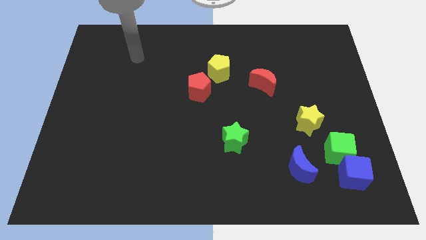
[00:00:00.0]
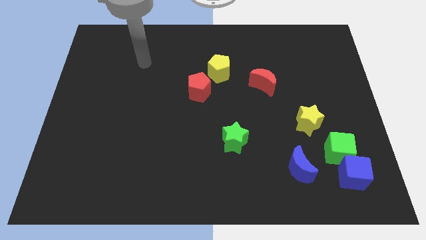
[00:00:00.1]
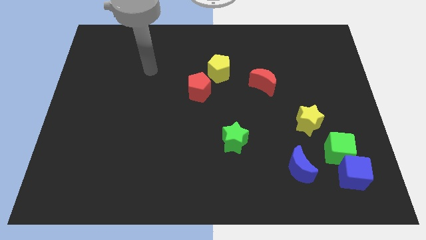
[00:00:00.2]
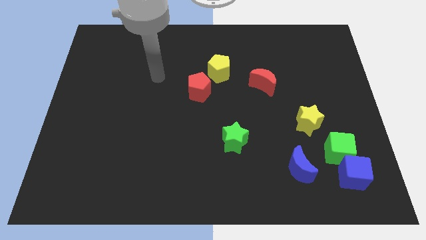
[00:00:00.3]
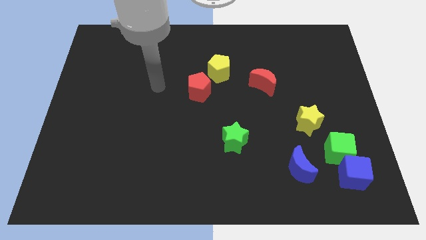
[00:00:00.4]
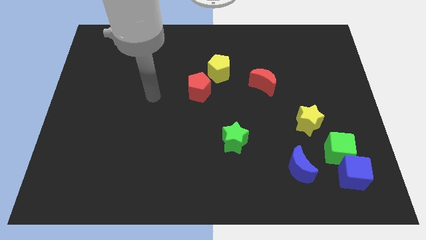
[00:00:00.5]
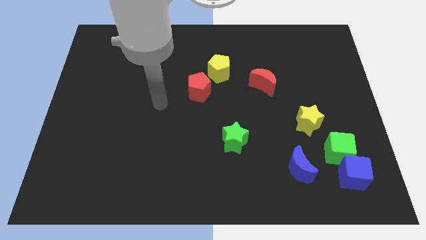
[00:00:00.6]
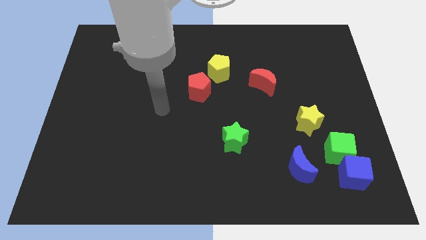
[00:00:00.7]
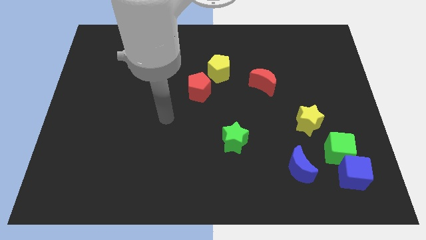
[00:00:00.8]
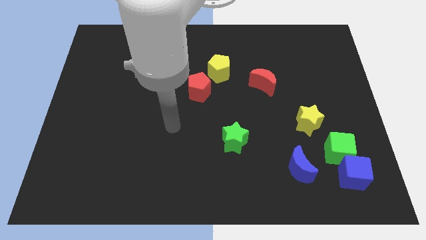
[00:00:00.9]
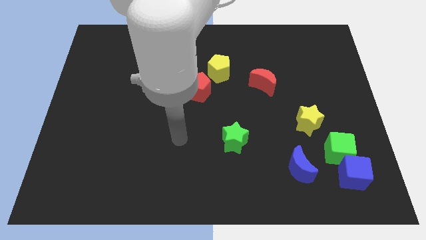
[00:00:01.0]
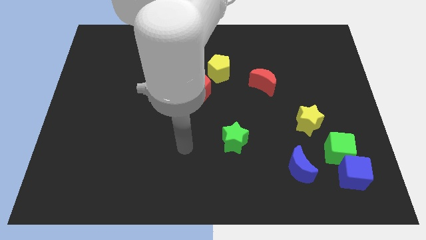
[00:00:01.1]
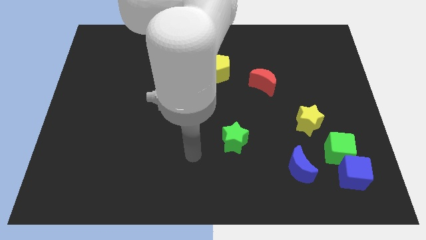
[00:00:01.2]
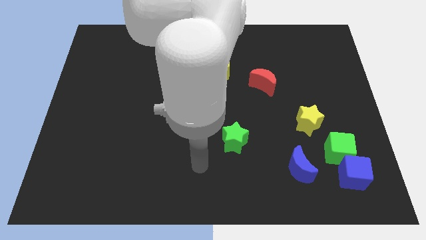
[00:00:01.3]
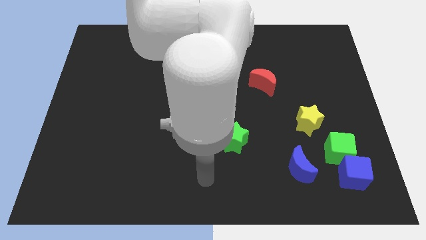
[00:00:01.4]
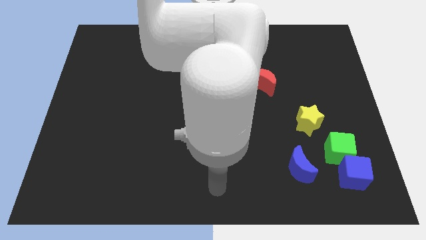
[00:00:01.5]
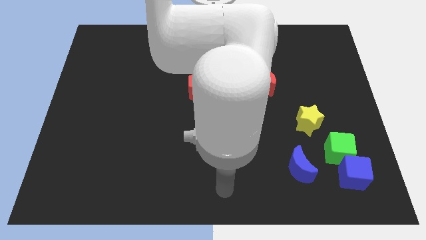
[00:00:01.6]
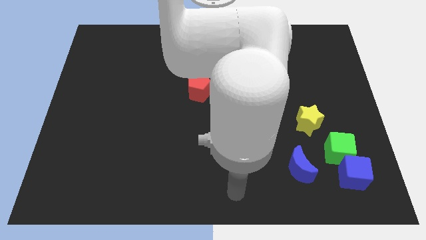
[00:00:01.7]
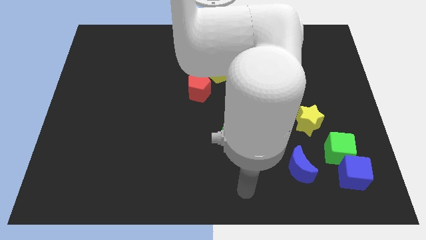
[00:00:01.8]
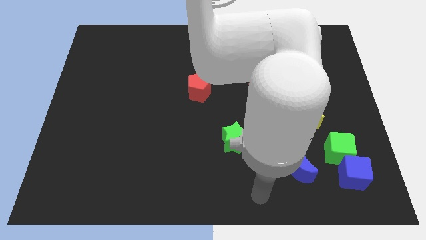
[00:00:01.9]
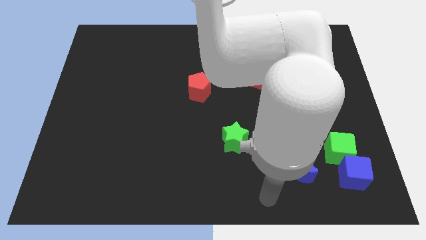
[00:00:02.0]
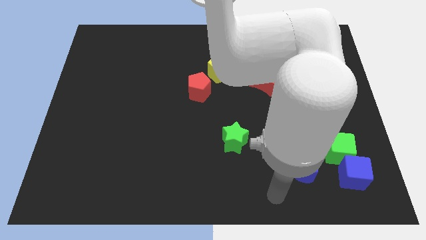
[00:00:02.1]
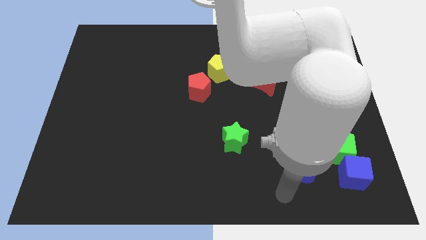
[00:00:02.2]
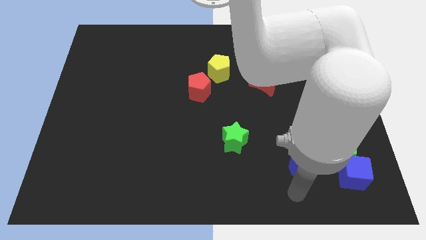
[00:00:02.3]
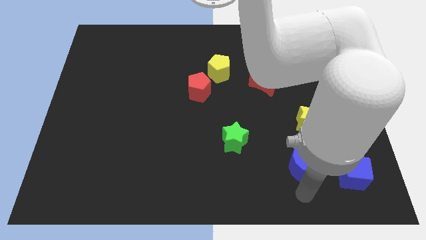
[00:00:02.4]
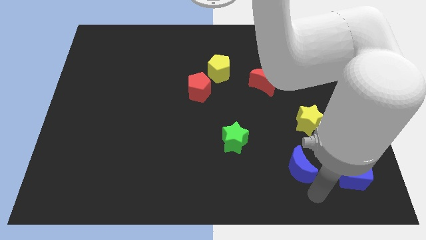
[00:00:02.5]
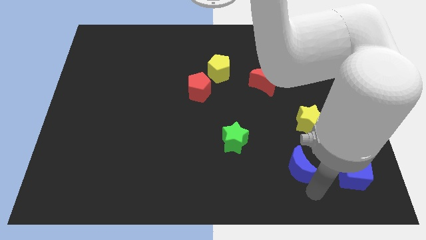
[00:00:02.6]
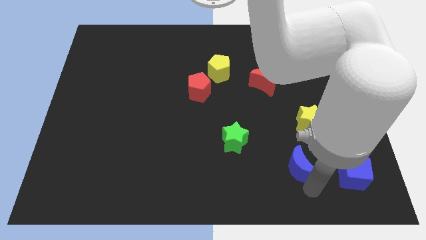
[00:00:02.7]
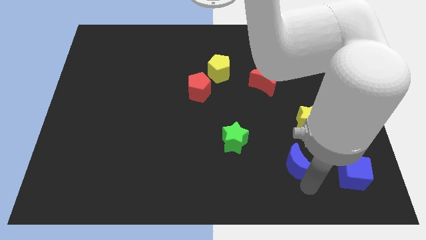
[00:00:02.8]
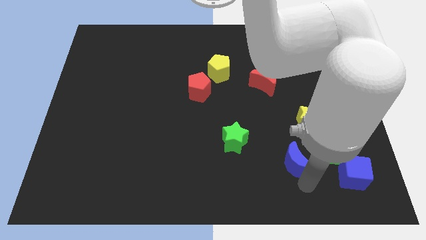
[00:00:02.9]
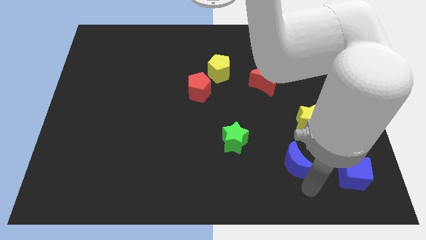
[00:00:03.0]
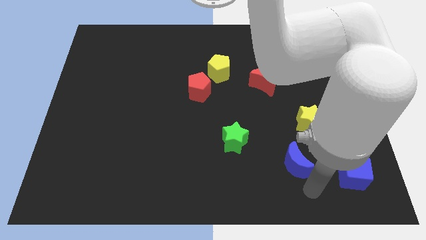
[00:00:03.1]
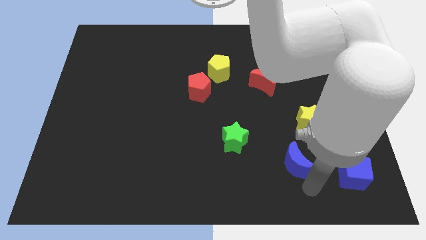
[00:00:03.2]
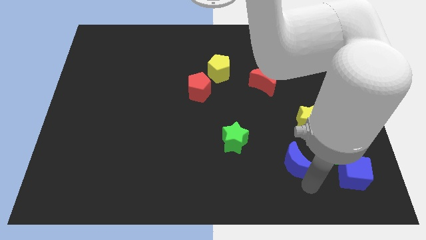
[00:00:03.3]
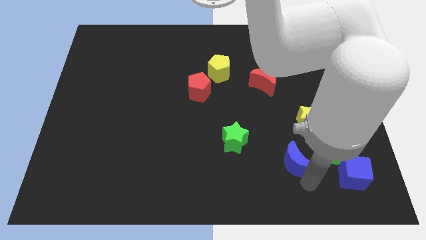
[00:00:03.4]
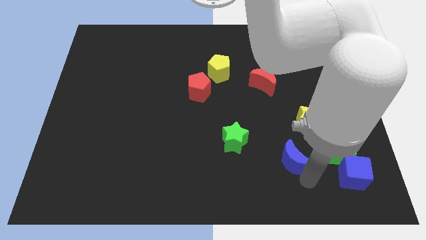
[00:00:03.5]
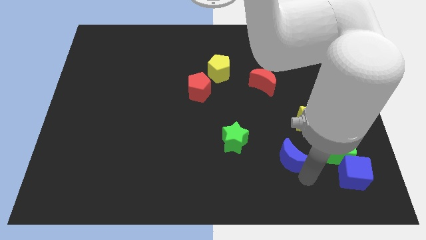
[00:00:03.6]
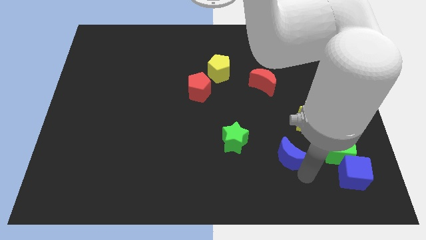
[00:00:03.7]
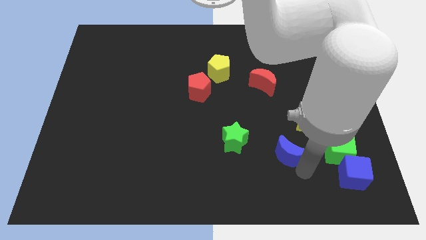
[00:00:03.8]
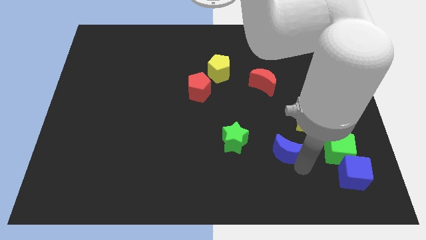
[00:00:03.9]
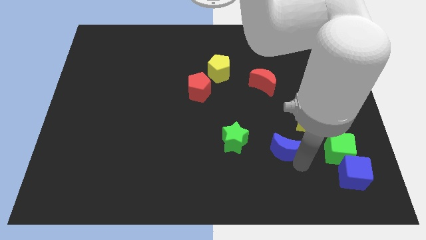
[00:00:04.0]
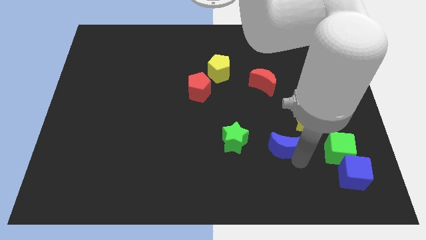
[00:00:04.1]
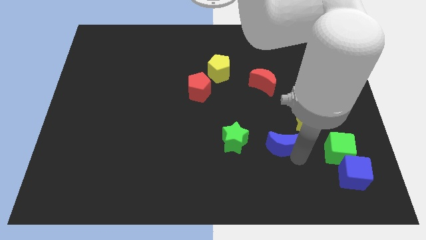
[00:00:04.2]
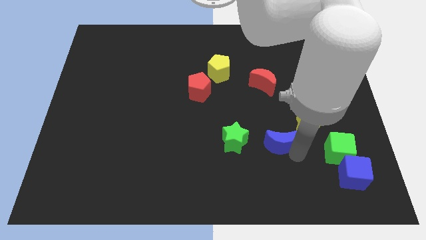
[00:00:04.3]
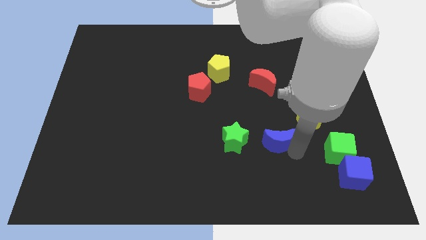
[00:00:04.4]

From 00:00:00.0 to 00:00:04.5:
move the blue moon a bit upwards and left

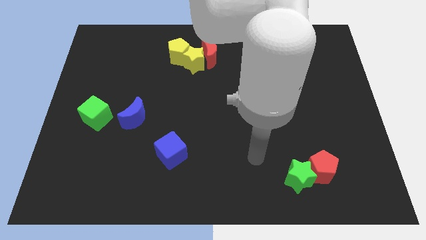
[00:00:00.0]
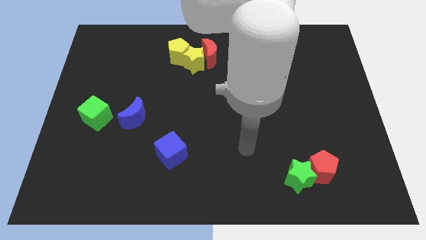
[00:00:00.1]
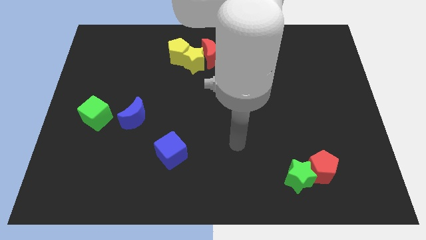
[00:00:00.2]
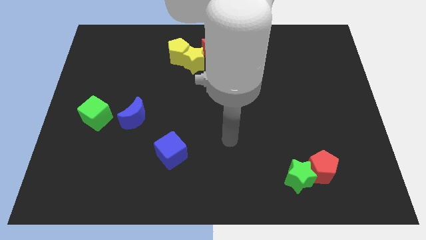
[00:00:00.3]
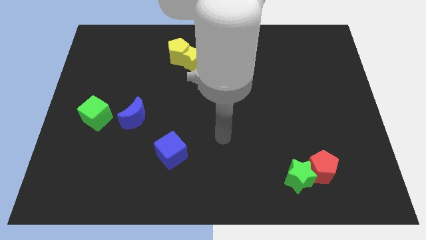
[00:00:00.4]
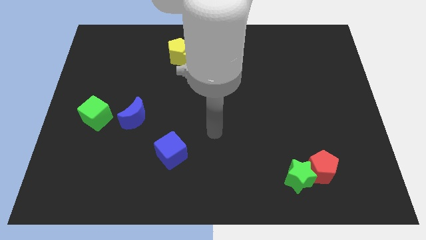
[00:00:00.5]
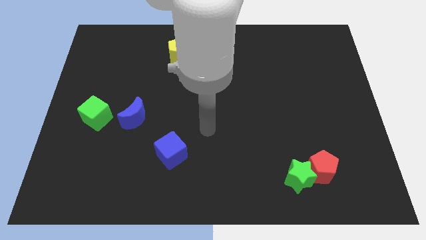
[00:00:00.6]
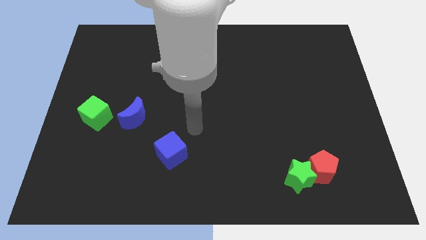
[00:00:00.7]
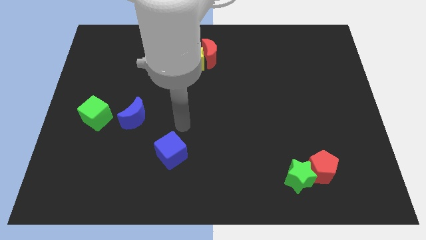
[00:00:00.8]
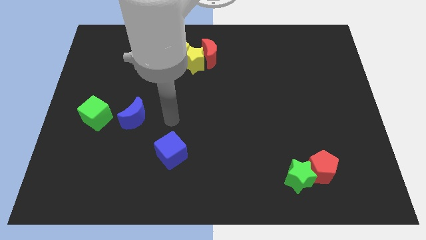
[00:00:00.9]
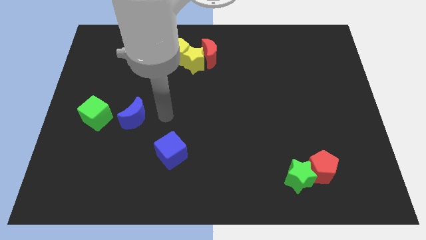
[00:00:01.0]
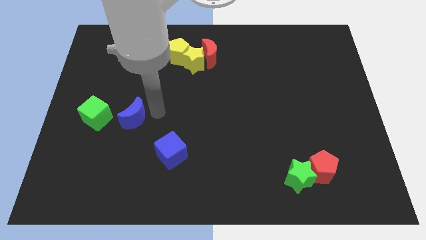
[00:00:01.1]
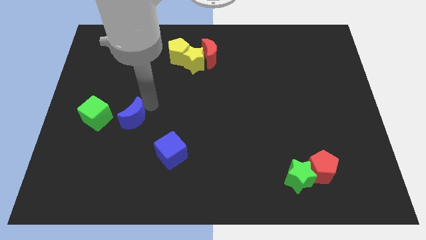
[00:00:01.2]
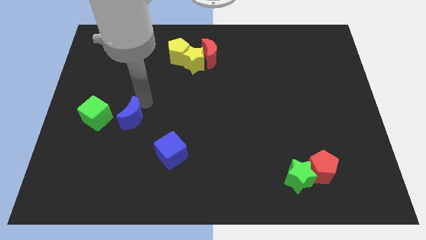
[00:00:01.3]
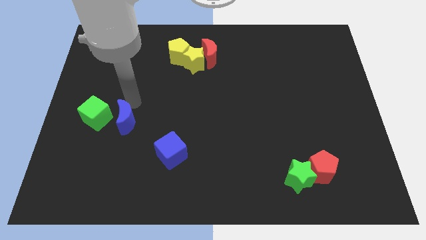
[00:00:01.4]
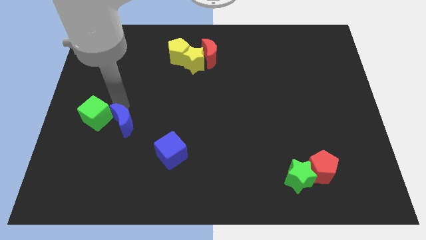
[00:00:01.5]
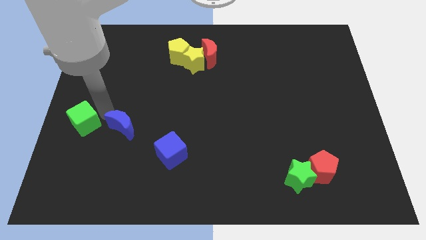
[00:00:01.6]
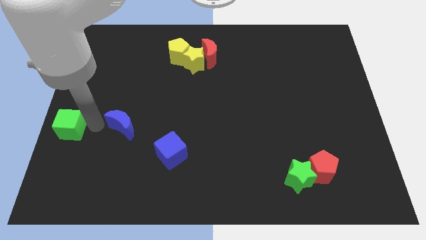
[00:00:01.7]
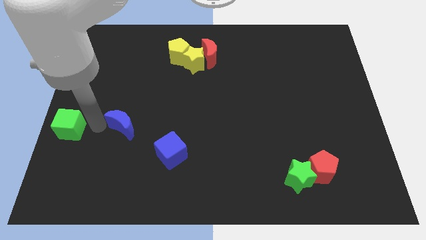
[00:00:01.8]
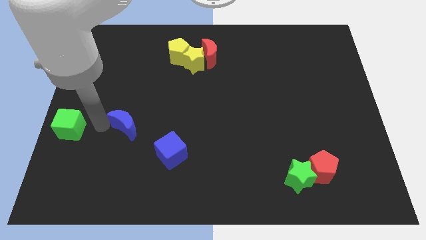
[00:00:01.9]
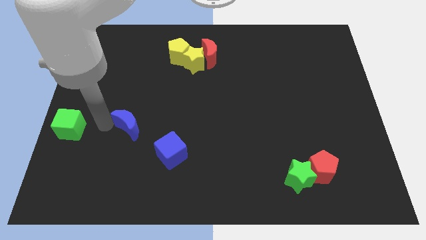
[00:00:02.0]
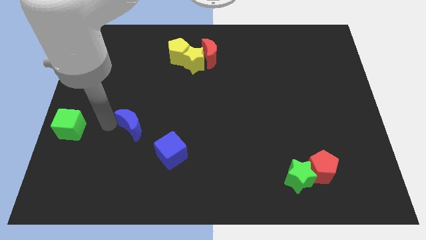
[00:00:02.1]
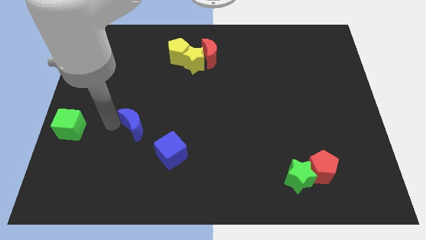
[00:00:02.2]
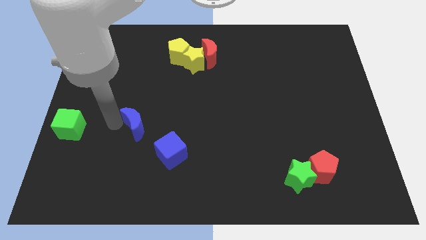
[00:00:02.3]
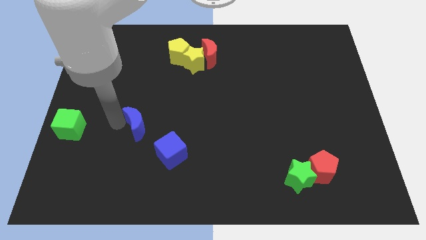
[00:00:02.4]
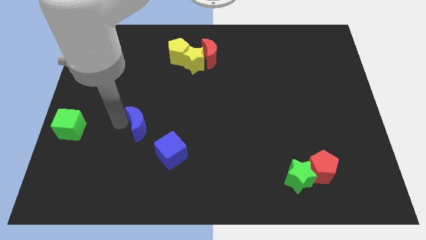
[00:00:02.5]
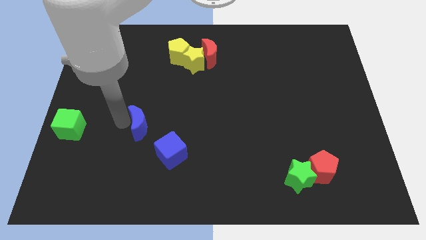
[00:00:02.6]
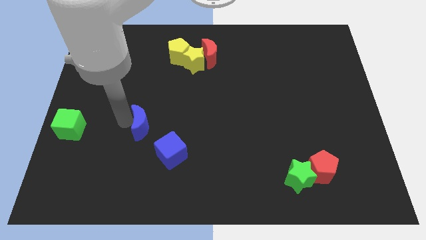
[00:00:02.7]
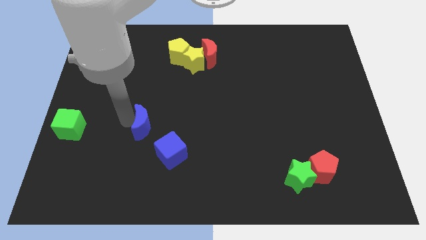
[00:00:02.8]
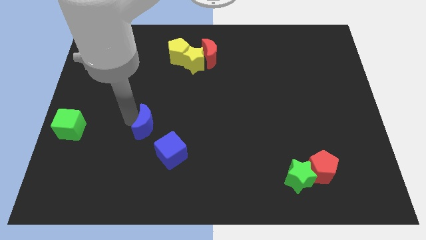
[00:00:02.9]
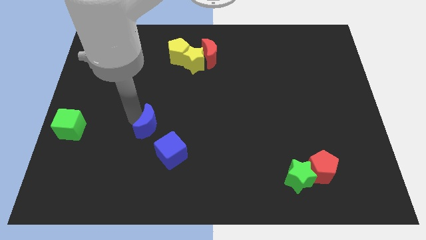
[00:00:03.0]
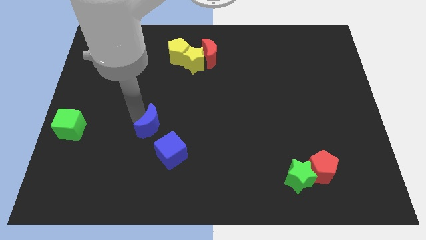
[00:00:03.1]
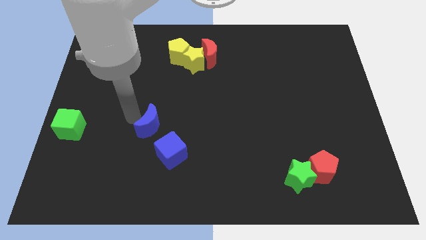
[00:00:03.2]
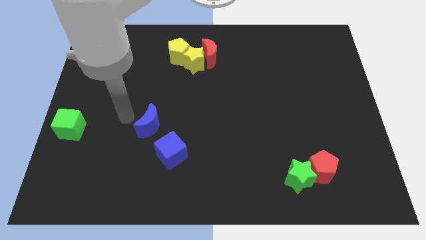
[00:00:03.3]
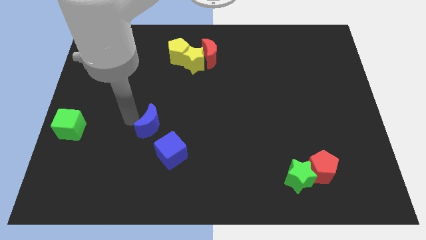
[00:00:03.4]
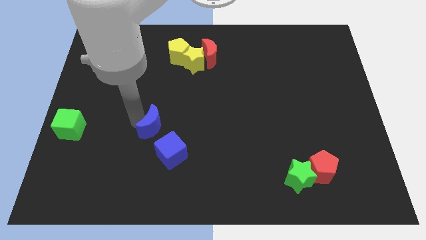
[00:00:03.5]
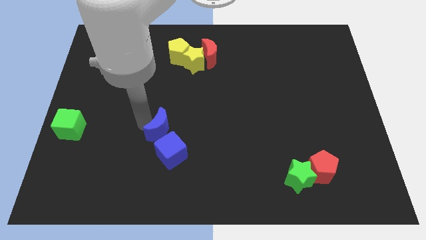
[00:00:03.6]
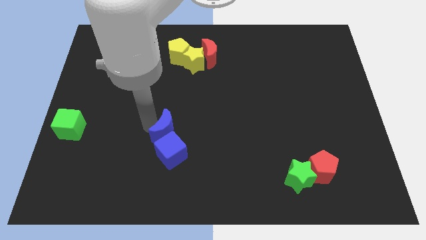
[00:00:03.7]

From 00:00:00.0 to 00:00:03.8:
slide the blue moon down and to the right diagonally a bit

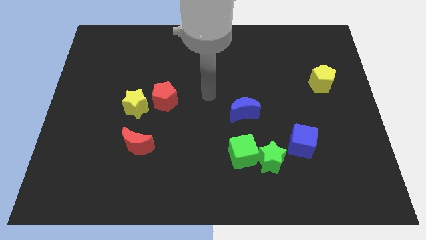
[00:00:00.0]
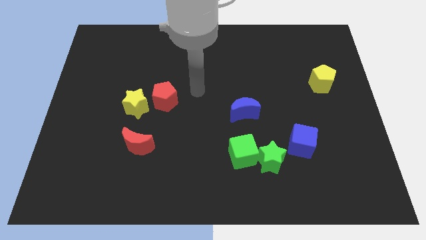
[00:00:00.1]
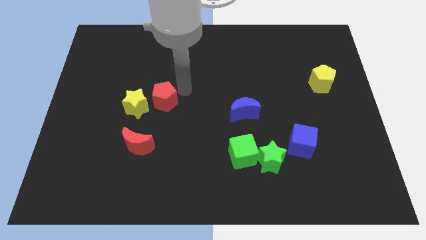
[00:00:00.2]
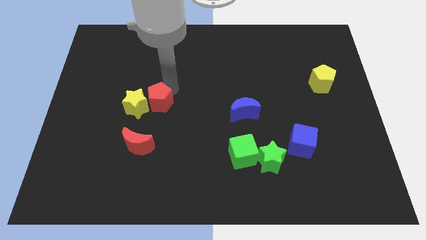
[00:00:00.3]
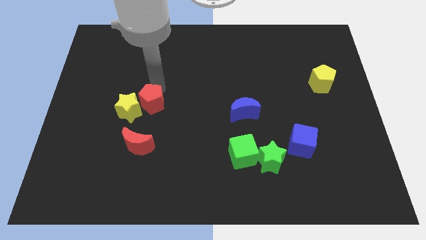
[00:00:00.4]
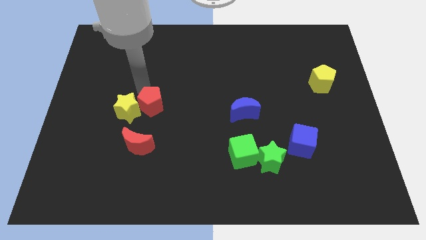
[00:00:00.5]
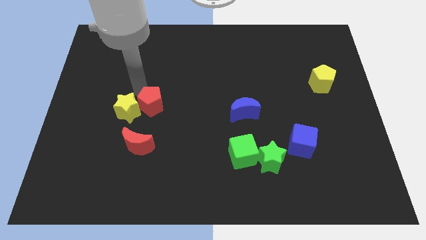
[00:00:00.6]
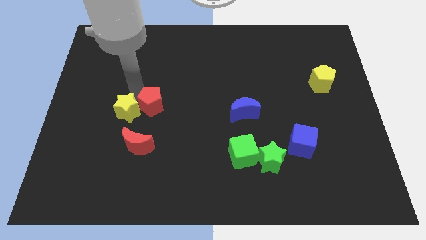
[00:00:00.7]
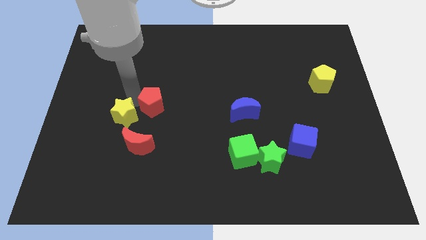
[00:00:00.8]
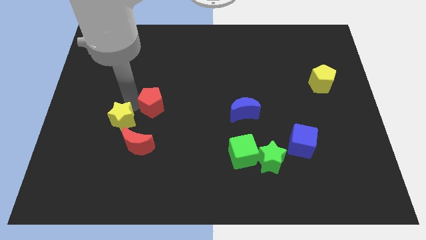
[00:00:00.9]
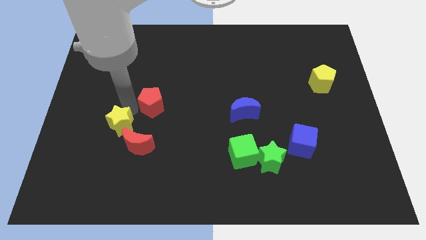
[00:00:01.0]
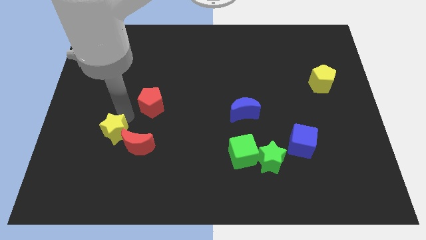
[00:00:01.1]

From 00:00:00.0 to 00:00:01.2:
slightly move the yellow star down
